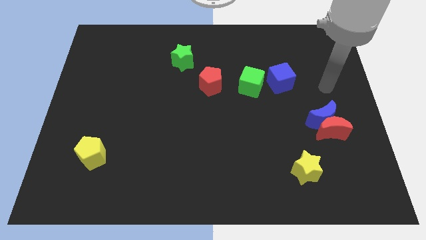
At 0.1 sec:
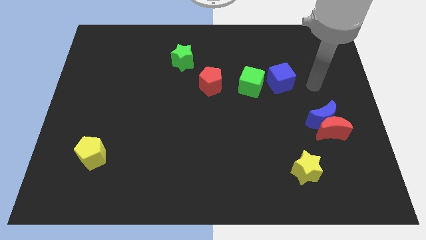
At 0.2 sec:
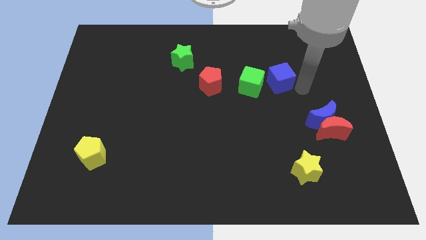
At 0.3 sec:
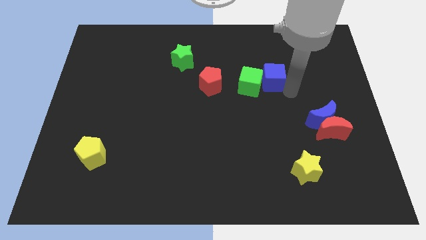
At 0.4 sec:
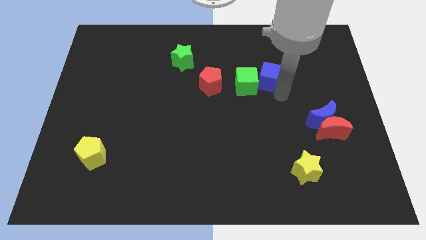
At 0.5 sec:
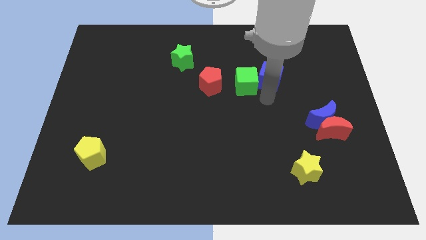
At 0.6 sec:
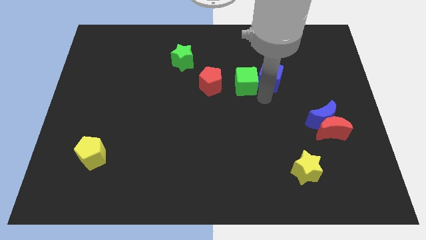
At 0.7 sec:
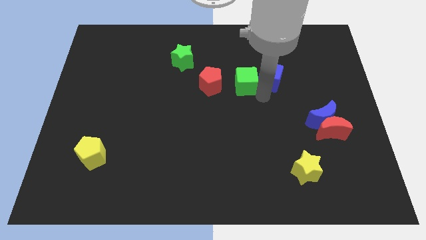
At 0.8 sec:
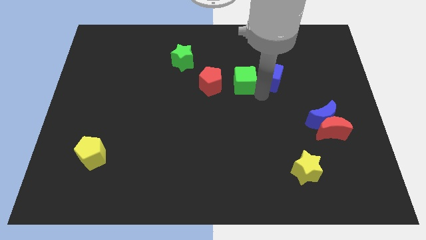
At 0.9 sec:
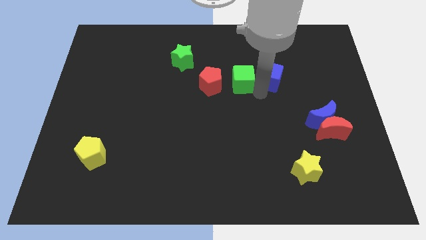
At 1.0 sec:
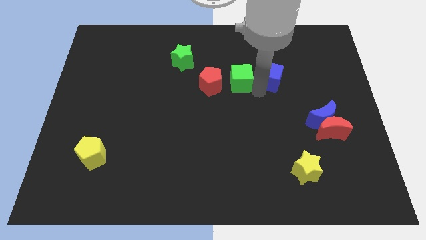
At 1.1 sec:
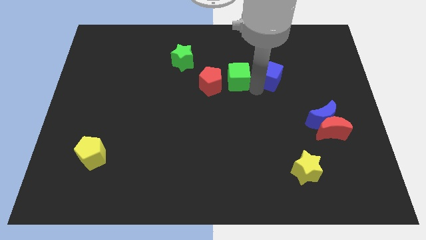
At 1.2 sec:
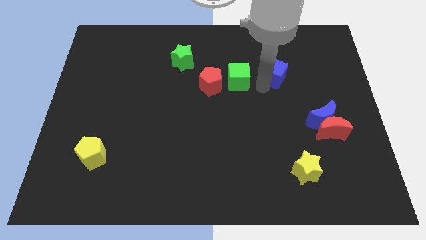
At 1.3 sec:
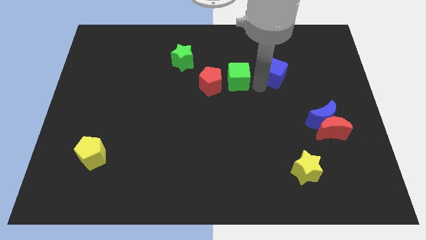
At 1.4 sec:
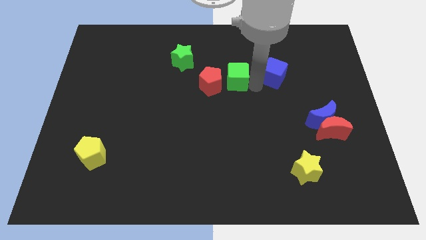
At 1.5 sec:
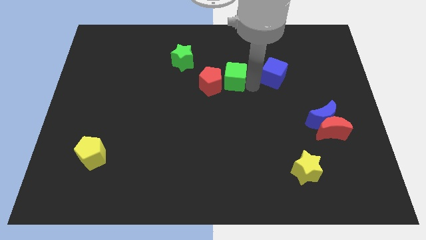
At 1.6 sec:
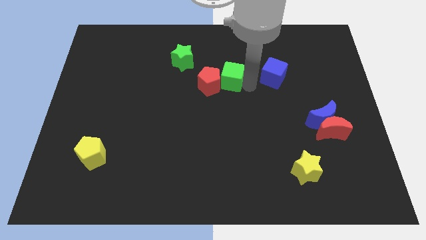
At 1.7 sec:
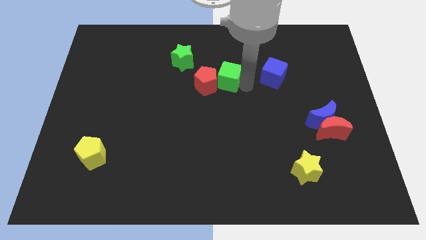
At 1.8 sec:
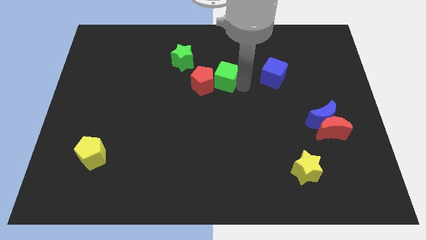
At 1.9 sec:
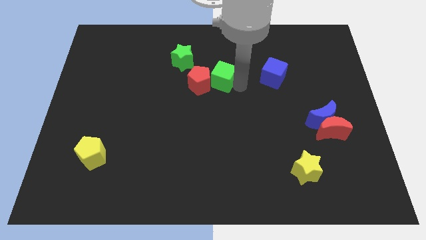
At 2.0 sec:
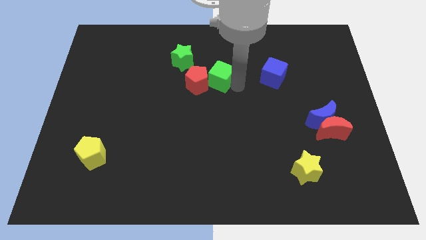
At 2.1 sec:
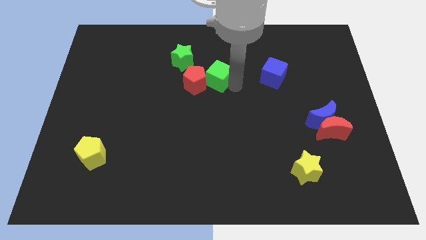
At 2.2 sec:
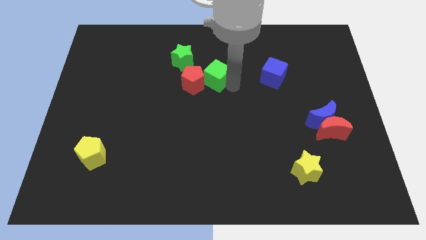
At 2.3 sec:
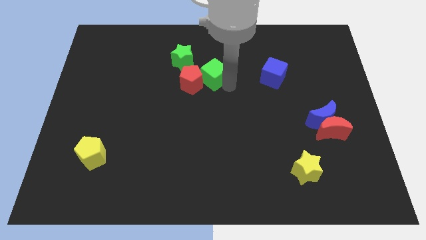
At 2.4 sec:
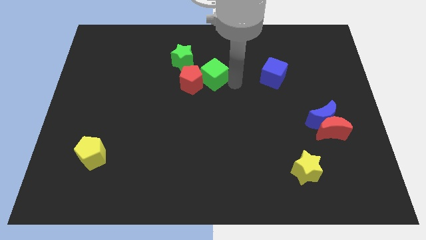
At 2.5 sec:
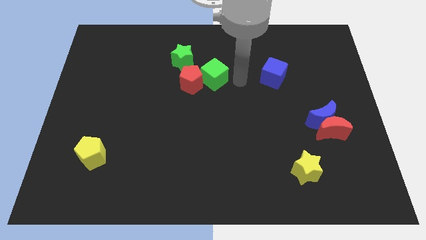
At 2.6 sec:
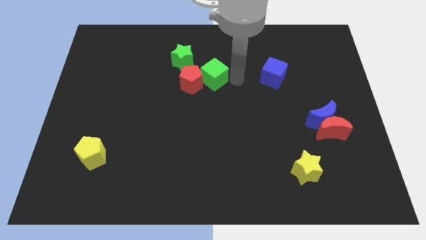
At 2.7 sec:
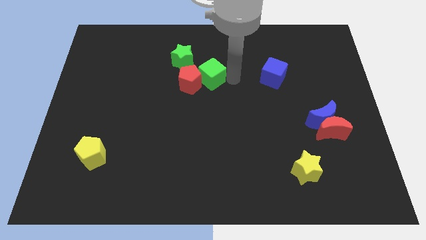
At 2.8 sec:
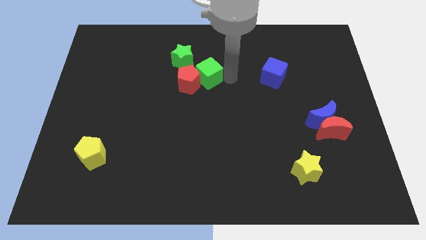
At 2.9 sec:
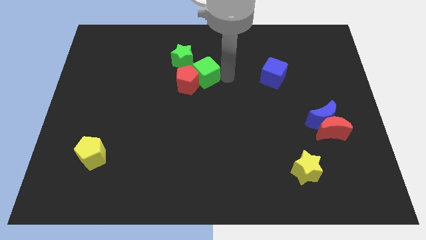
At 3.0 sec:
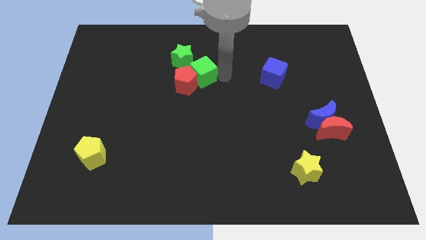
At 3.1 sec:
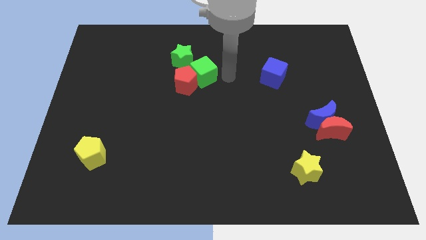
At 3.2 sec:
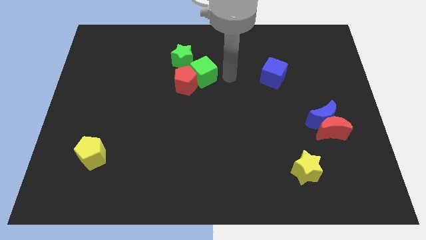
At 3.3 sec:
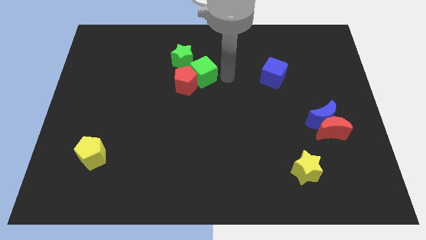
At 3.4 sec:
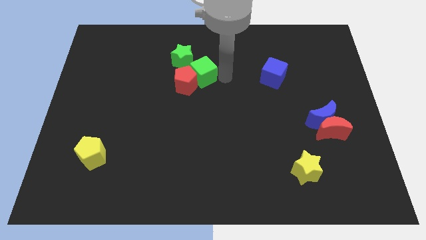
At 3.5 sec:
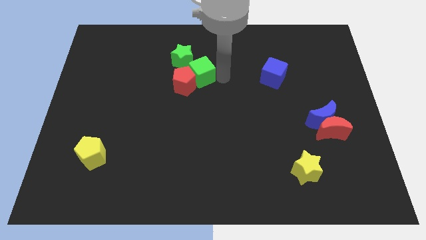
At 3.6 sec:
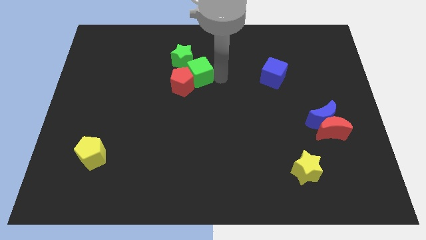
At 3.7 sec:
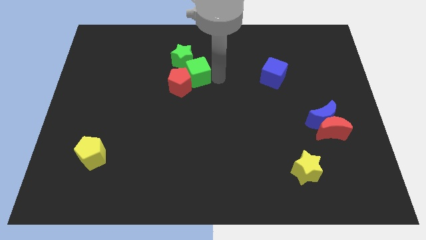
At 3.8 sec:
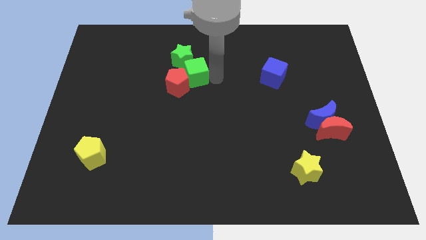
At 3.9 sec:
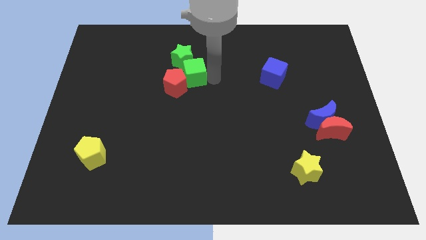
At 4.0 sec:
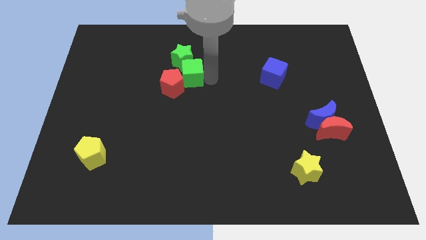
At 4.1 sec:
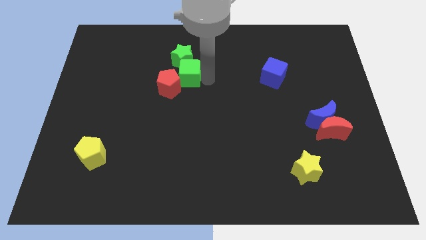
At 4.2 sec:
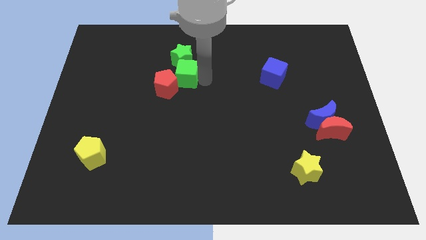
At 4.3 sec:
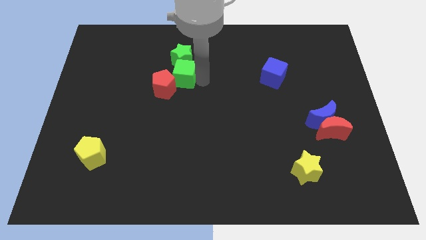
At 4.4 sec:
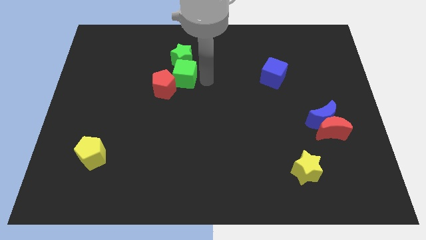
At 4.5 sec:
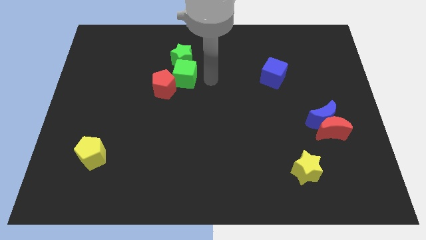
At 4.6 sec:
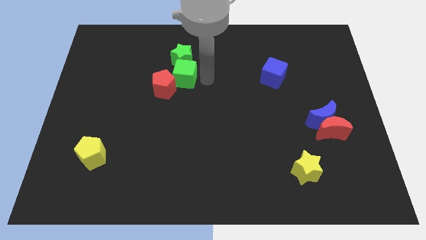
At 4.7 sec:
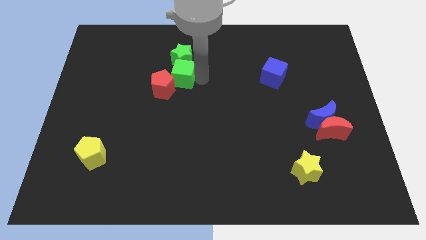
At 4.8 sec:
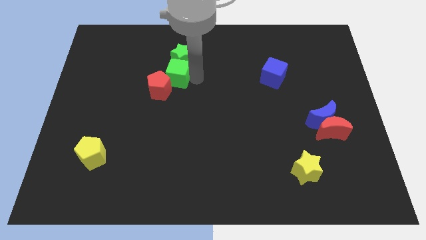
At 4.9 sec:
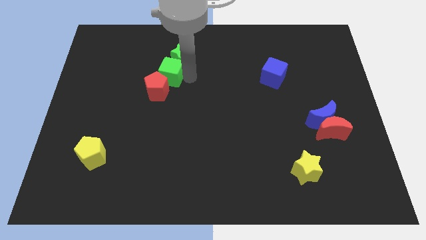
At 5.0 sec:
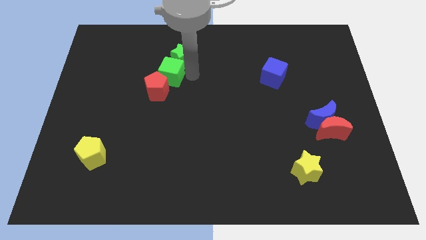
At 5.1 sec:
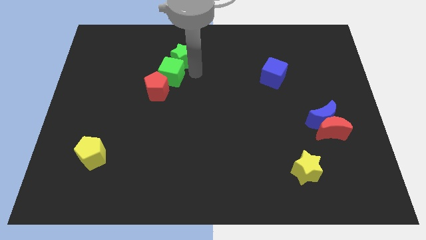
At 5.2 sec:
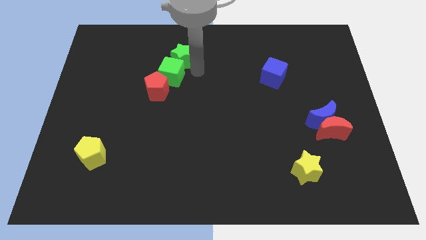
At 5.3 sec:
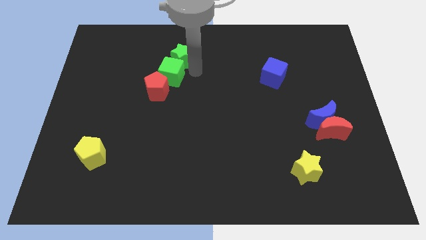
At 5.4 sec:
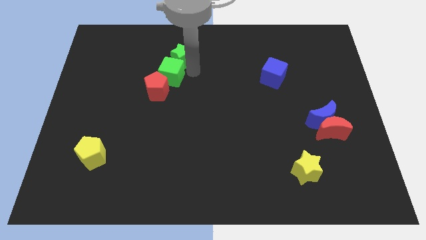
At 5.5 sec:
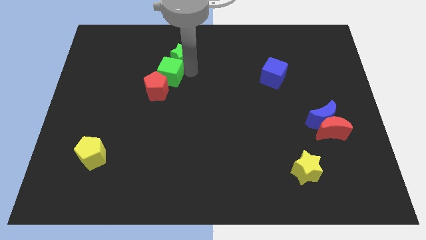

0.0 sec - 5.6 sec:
push the green cube to the left

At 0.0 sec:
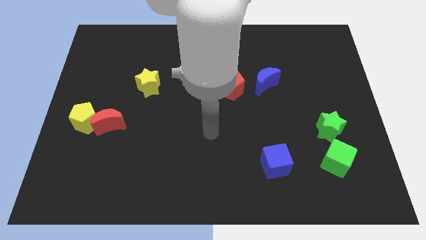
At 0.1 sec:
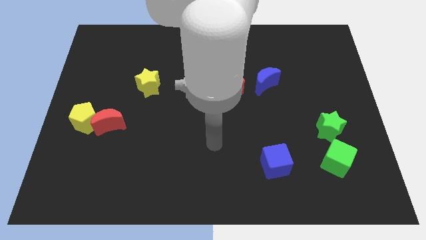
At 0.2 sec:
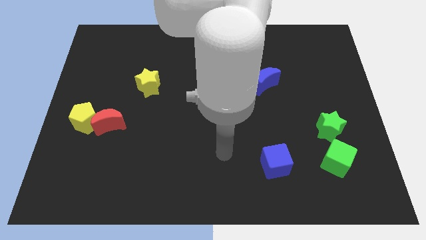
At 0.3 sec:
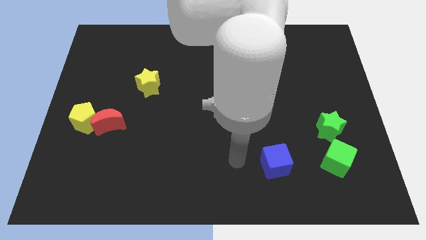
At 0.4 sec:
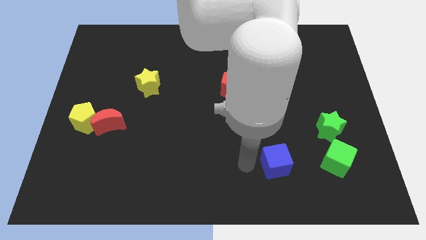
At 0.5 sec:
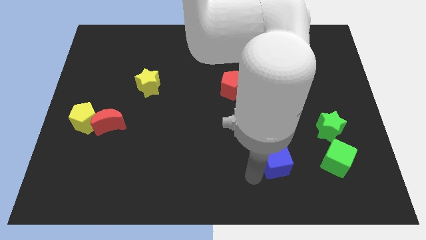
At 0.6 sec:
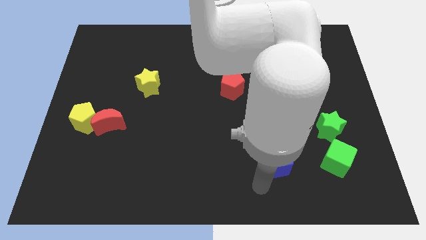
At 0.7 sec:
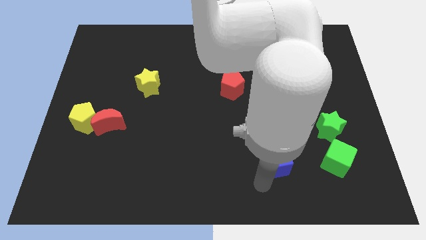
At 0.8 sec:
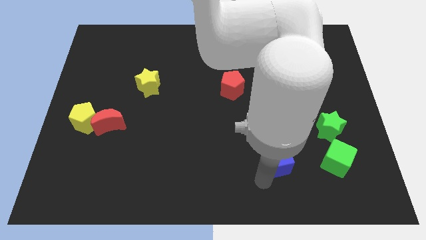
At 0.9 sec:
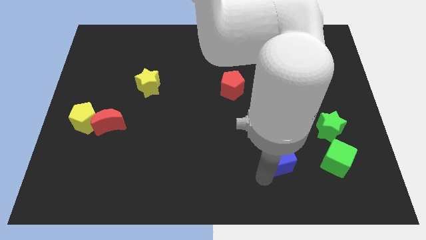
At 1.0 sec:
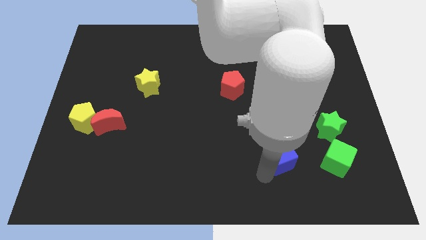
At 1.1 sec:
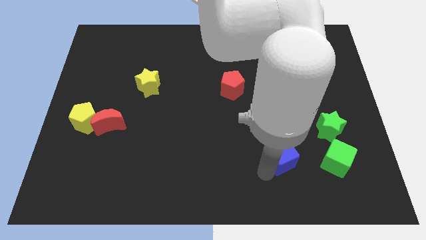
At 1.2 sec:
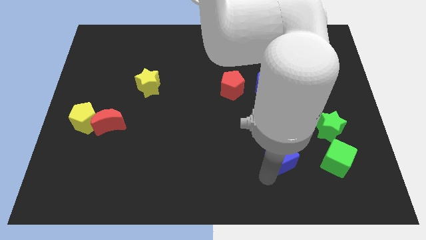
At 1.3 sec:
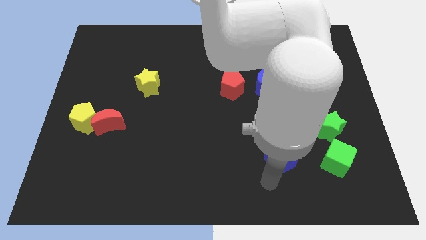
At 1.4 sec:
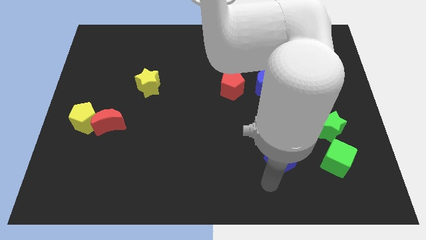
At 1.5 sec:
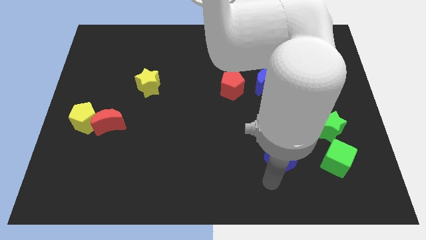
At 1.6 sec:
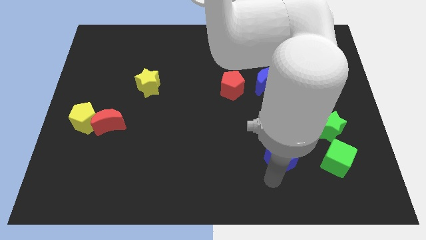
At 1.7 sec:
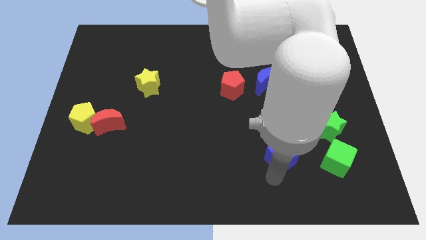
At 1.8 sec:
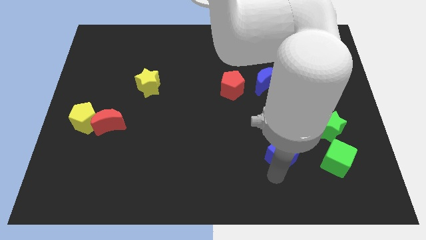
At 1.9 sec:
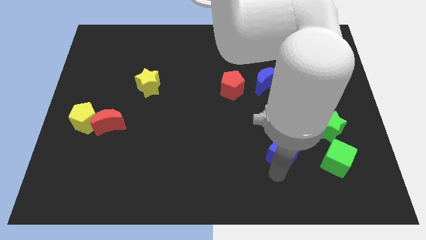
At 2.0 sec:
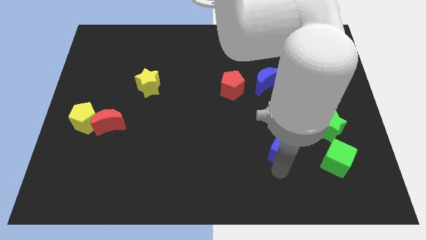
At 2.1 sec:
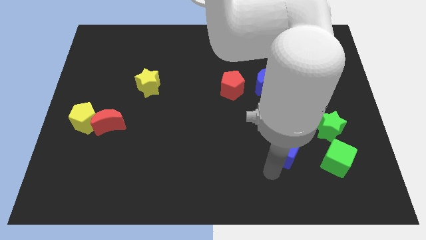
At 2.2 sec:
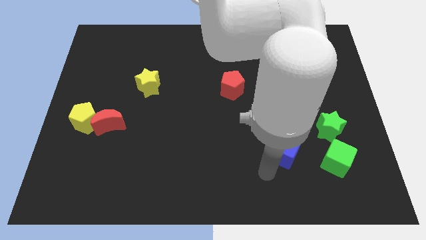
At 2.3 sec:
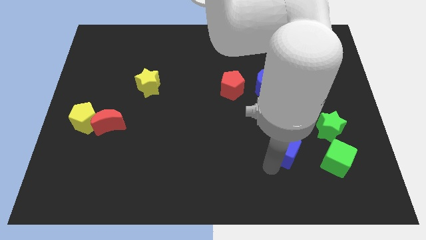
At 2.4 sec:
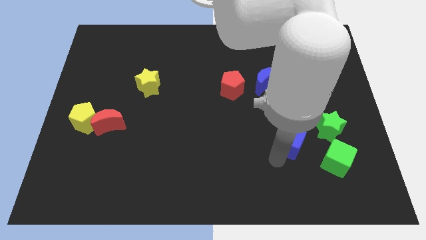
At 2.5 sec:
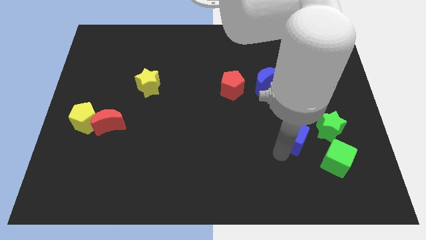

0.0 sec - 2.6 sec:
move the blue cube a little bit up and to the right

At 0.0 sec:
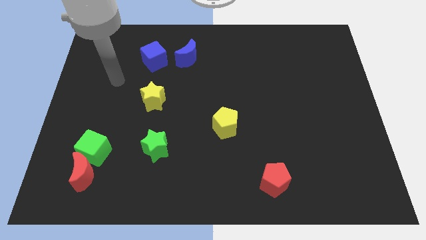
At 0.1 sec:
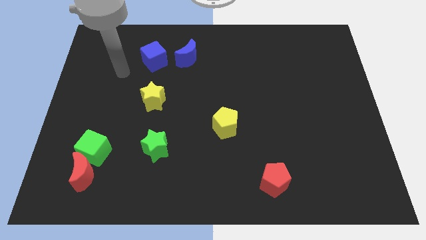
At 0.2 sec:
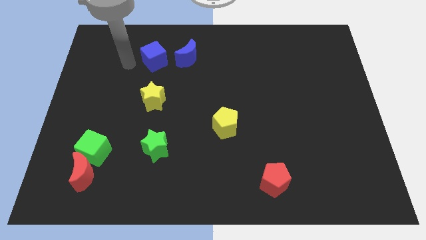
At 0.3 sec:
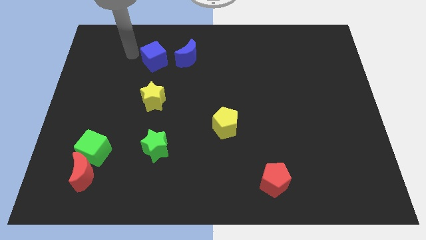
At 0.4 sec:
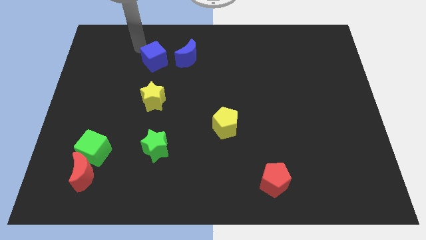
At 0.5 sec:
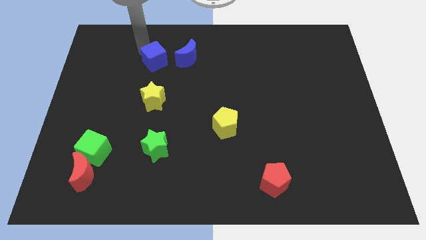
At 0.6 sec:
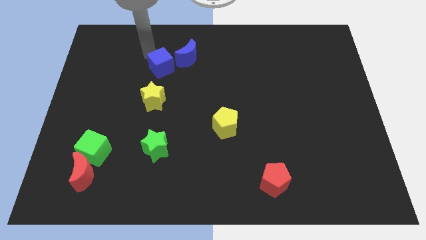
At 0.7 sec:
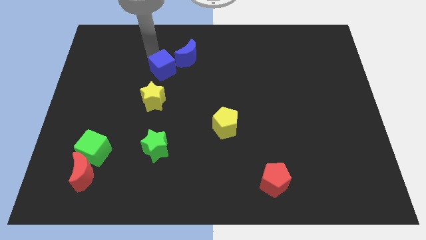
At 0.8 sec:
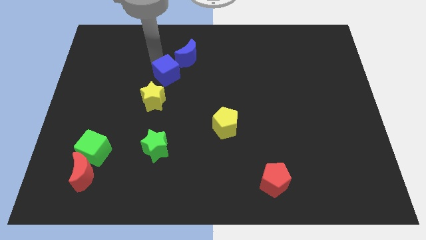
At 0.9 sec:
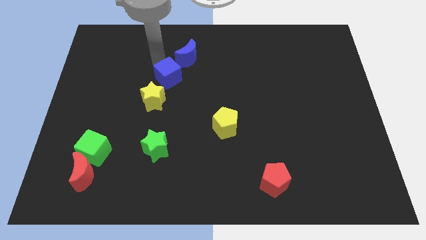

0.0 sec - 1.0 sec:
move the blue cube diagonally downwards and to the right slightly
